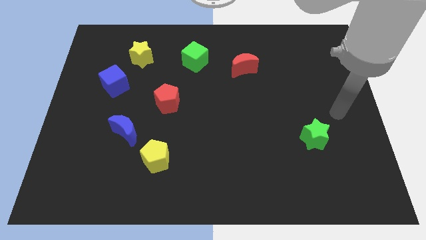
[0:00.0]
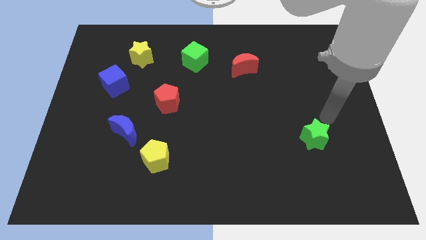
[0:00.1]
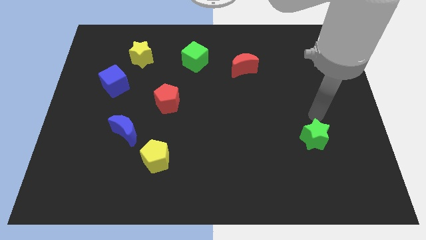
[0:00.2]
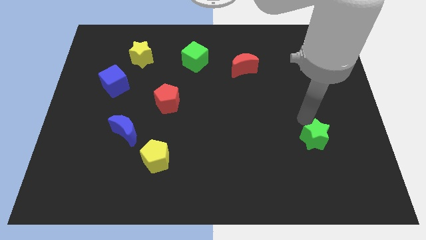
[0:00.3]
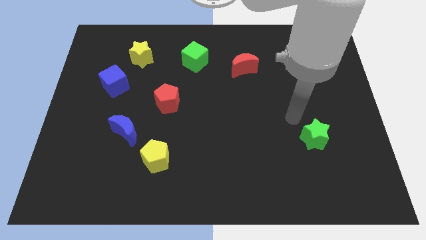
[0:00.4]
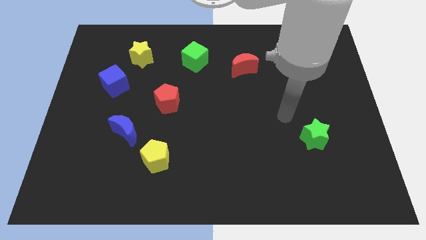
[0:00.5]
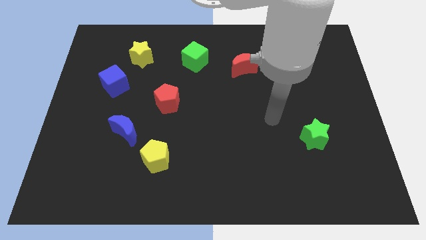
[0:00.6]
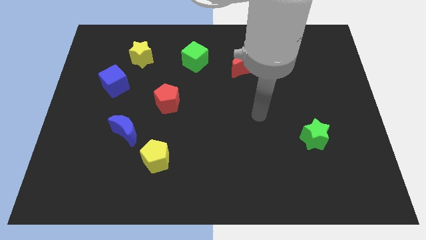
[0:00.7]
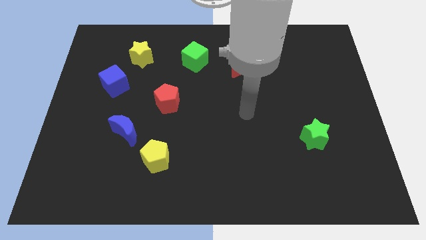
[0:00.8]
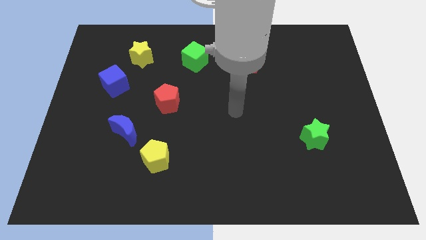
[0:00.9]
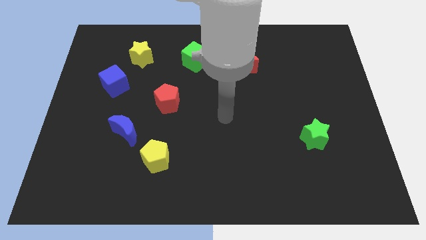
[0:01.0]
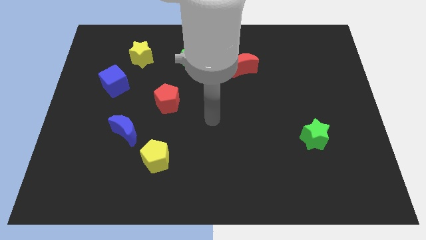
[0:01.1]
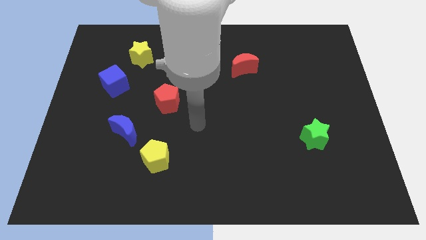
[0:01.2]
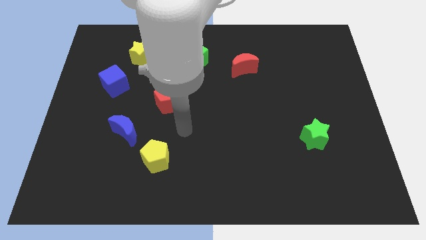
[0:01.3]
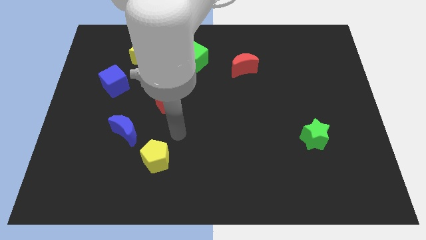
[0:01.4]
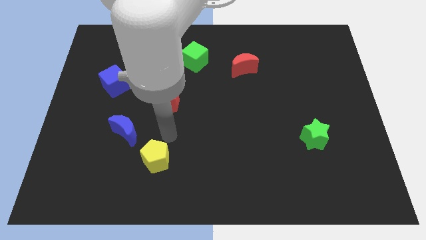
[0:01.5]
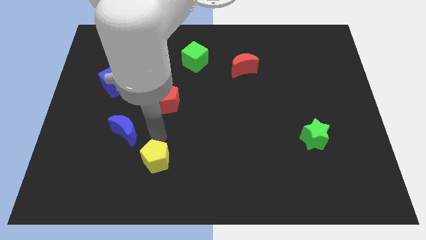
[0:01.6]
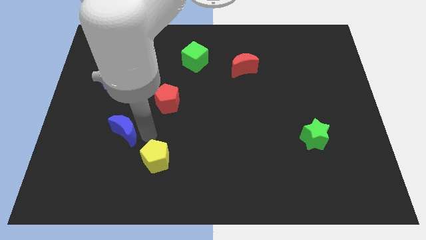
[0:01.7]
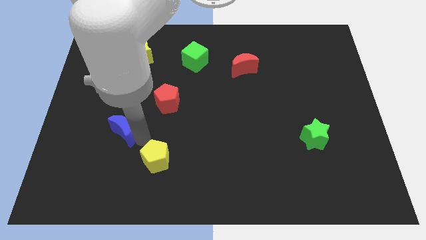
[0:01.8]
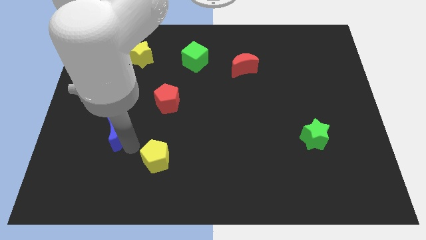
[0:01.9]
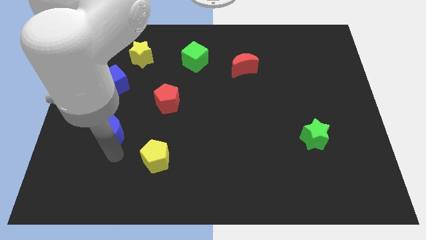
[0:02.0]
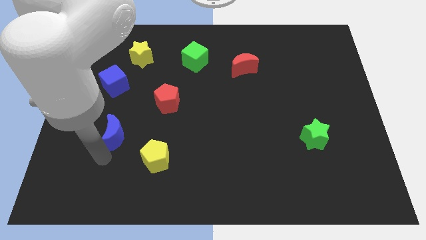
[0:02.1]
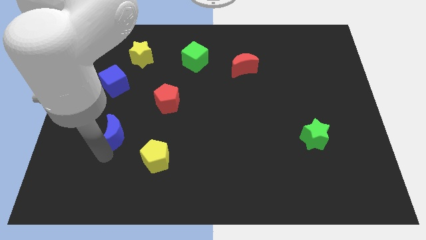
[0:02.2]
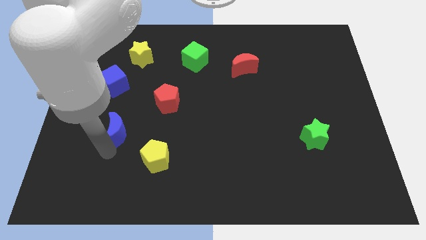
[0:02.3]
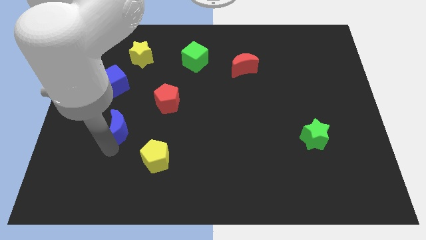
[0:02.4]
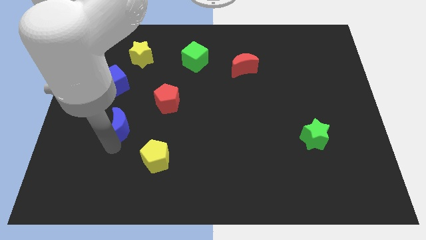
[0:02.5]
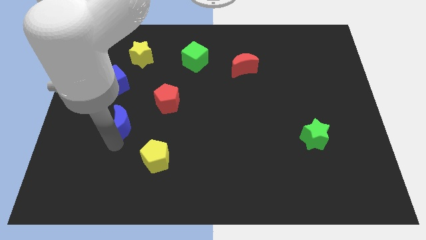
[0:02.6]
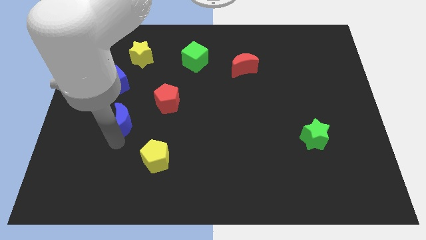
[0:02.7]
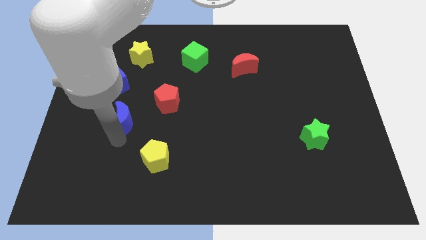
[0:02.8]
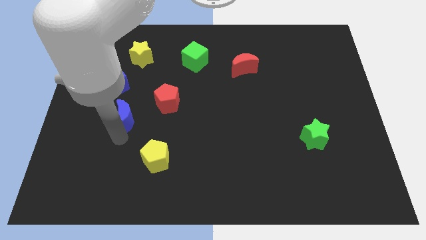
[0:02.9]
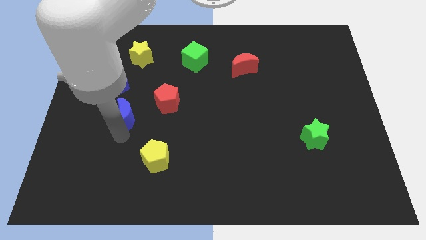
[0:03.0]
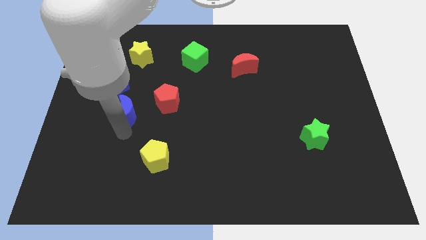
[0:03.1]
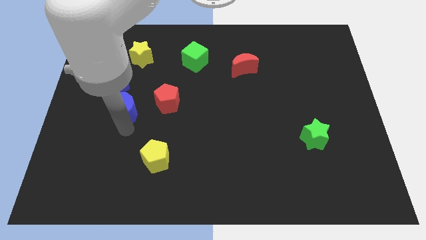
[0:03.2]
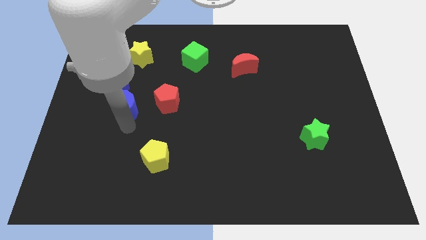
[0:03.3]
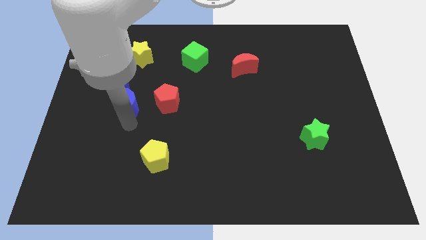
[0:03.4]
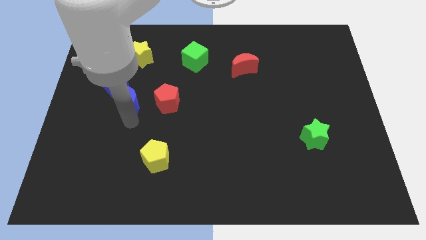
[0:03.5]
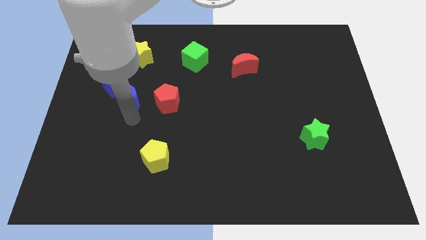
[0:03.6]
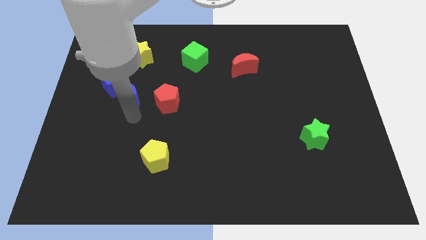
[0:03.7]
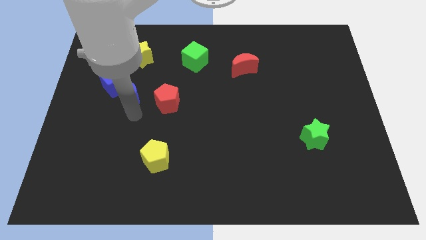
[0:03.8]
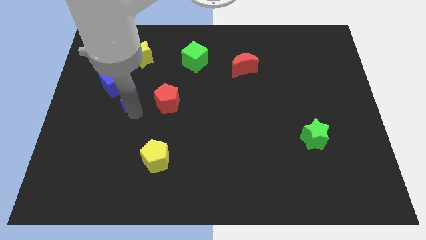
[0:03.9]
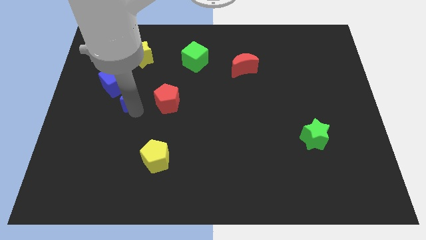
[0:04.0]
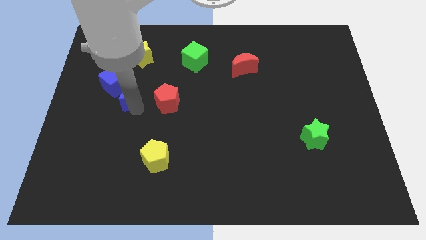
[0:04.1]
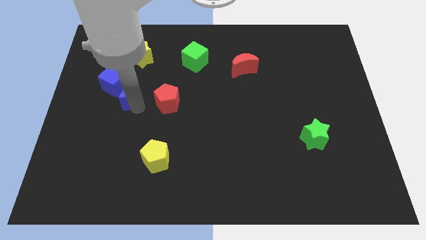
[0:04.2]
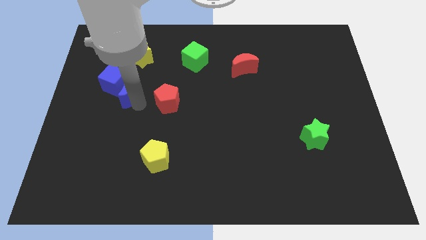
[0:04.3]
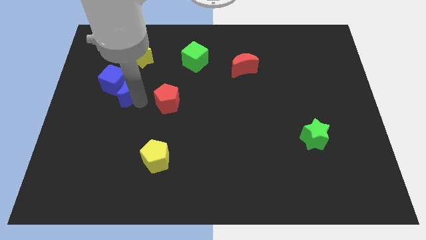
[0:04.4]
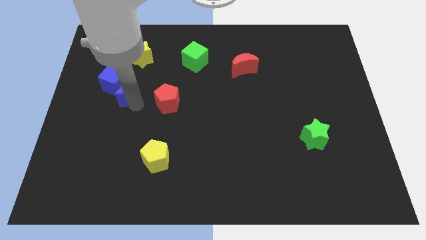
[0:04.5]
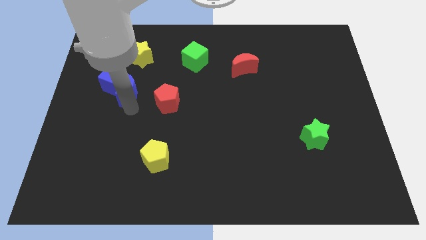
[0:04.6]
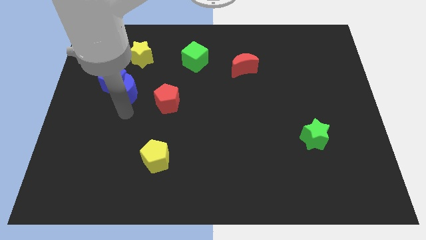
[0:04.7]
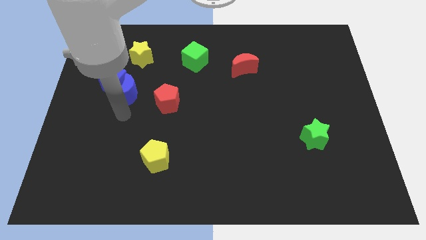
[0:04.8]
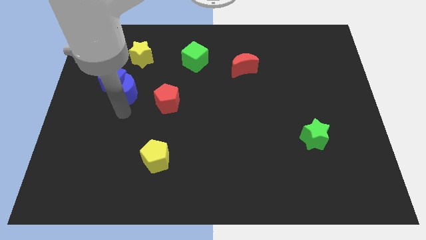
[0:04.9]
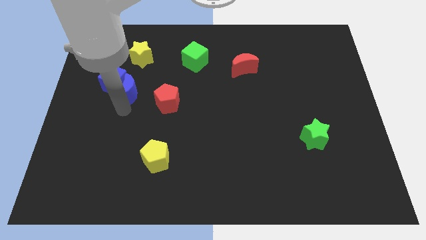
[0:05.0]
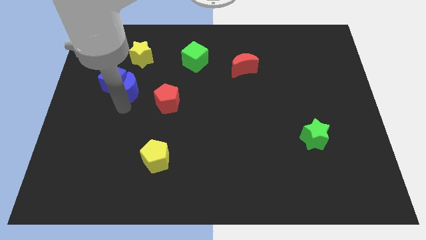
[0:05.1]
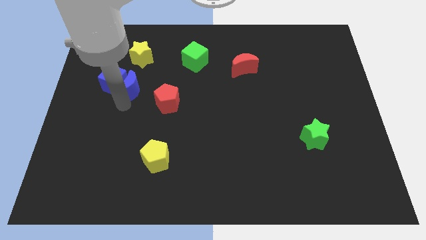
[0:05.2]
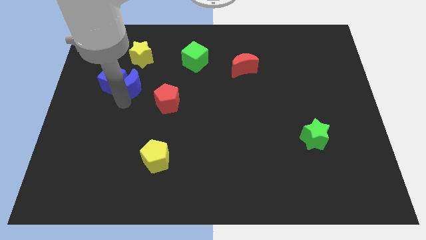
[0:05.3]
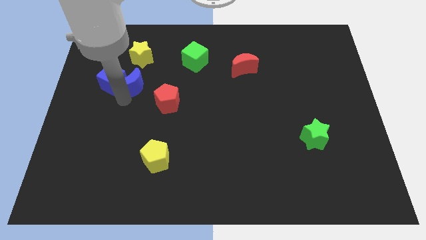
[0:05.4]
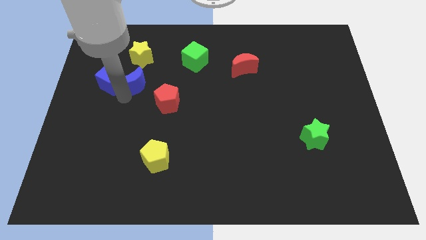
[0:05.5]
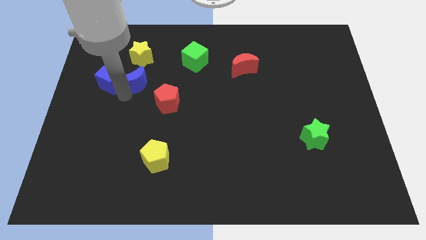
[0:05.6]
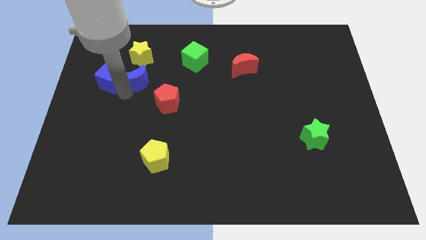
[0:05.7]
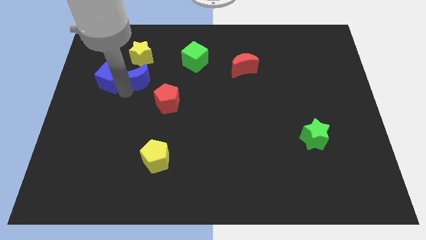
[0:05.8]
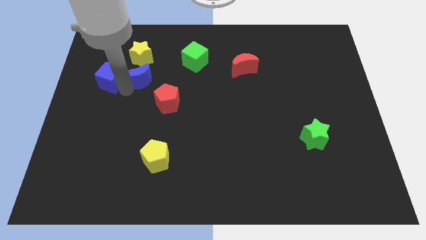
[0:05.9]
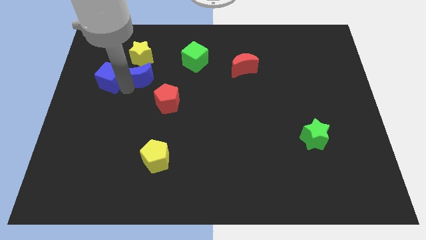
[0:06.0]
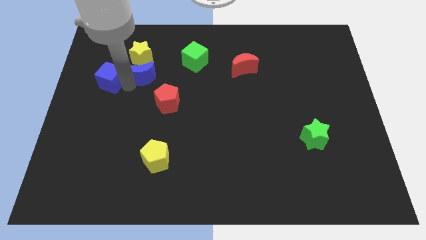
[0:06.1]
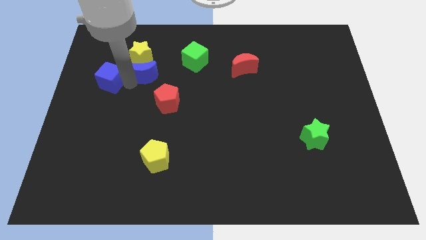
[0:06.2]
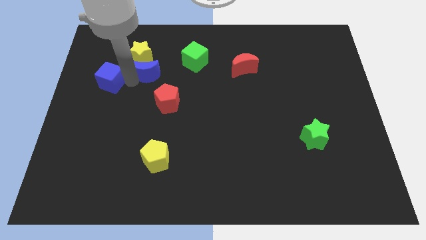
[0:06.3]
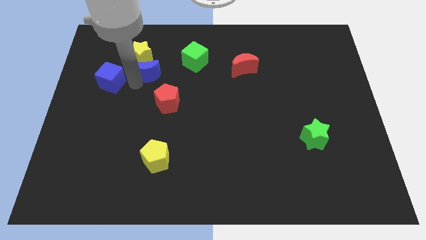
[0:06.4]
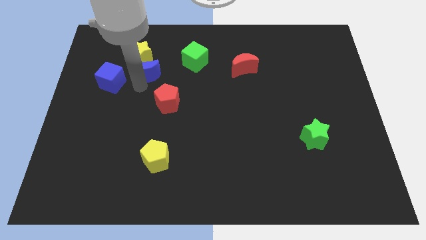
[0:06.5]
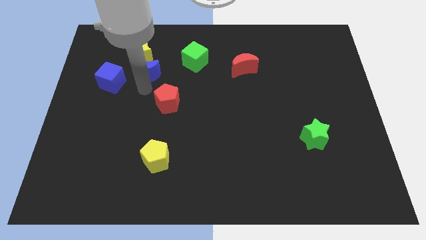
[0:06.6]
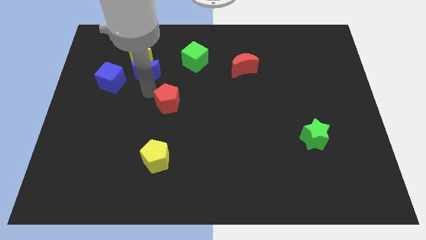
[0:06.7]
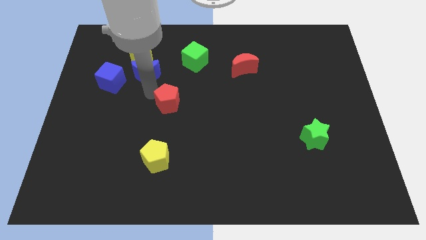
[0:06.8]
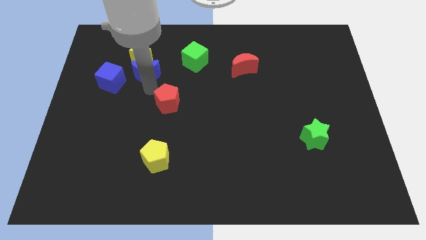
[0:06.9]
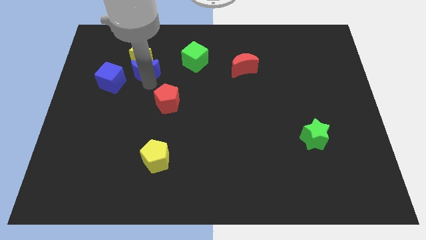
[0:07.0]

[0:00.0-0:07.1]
move the blue moon towards the yellow star

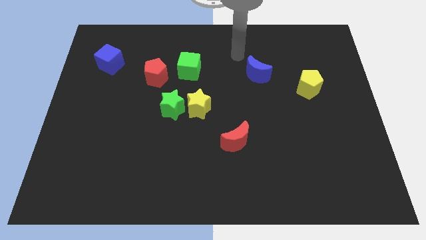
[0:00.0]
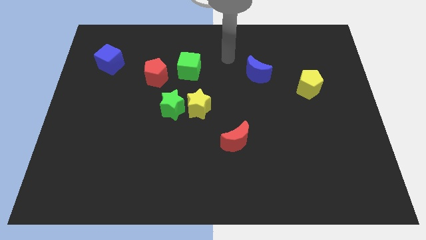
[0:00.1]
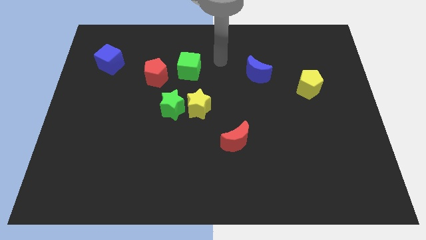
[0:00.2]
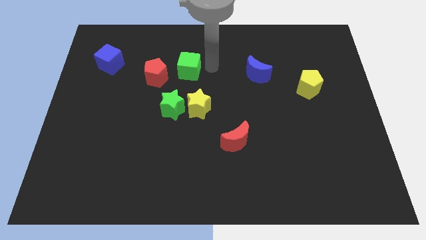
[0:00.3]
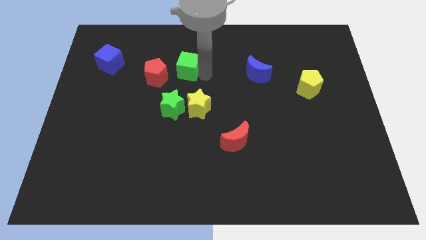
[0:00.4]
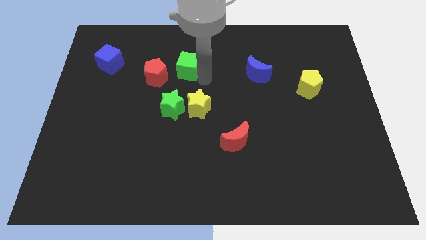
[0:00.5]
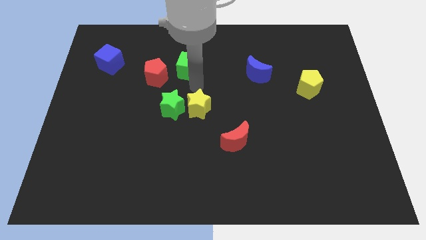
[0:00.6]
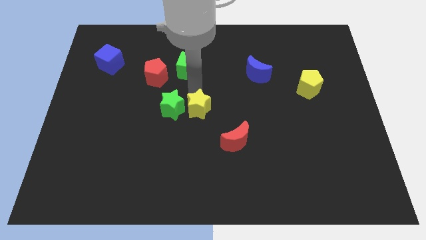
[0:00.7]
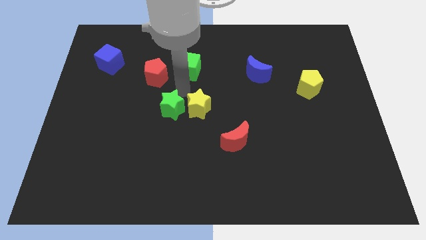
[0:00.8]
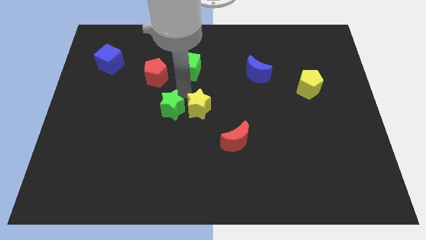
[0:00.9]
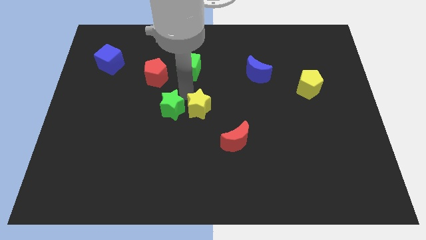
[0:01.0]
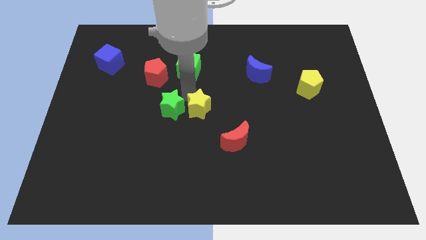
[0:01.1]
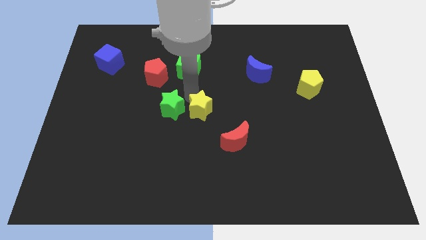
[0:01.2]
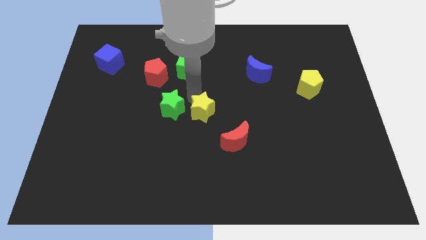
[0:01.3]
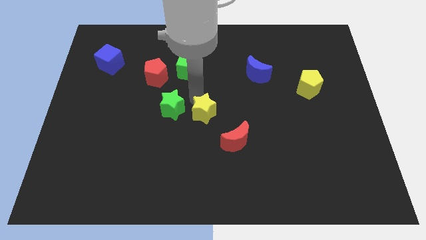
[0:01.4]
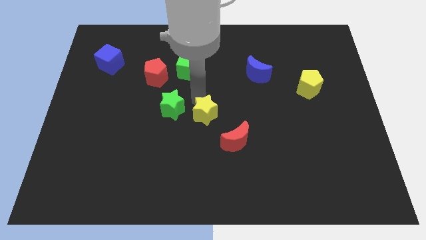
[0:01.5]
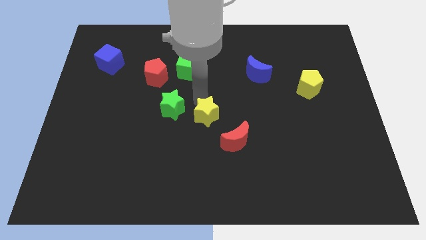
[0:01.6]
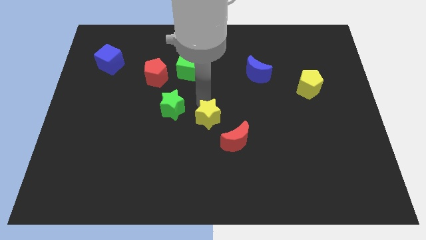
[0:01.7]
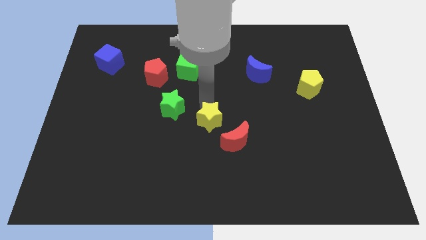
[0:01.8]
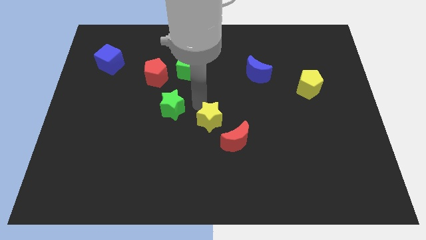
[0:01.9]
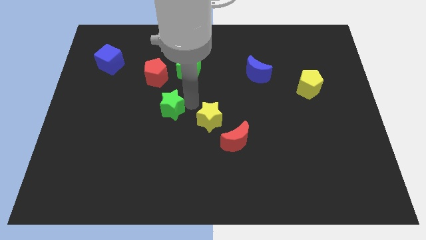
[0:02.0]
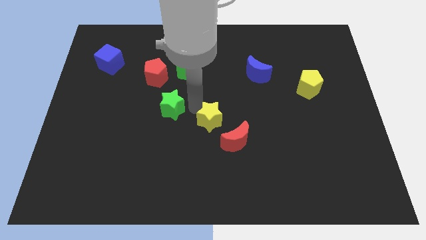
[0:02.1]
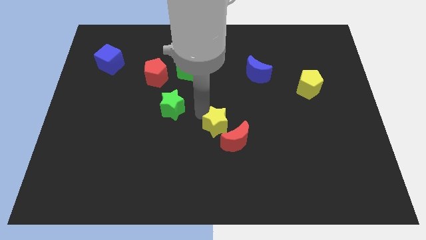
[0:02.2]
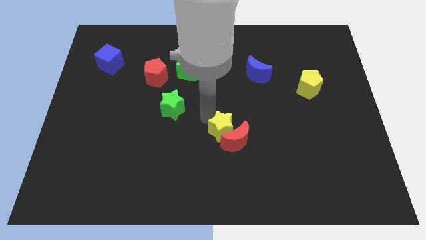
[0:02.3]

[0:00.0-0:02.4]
slide the yellow star to the red moon
